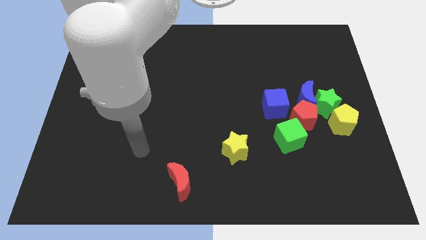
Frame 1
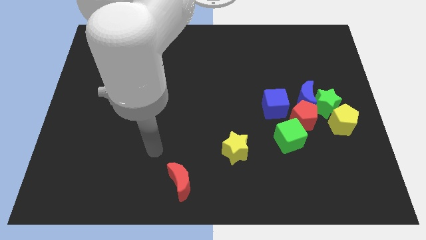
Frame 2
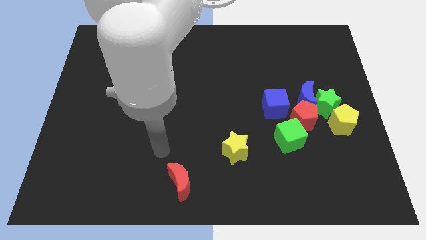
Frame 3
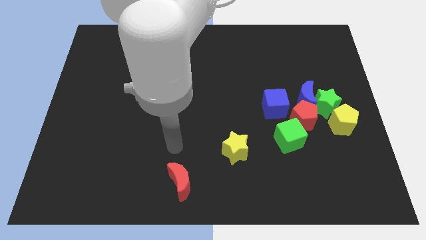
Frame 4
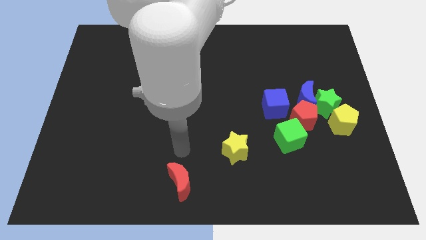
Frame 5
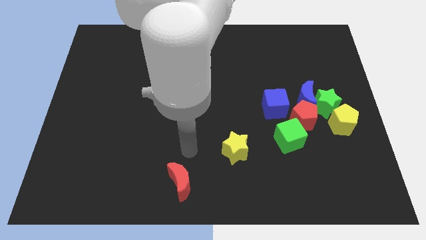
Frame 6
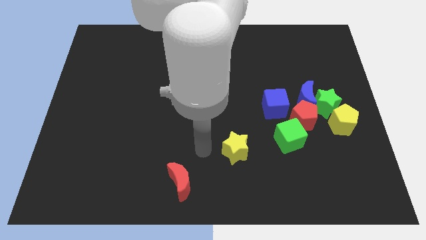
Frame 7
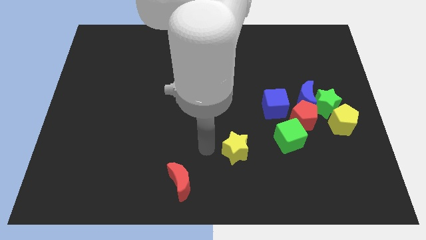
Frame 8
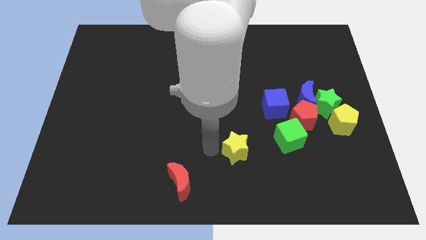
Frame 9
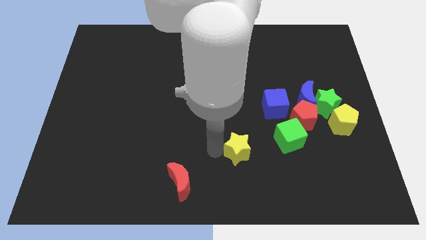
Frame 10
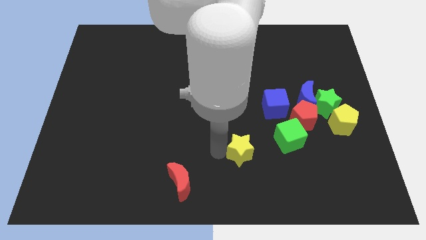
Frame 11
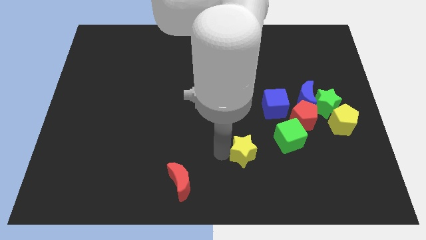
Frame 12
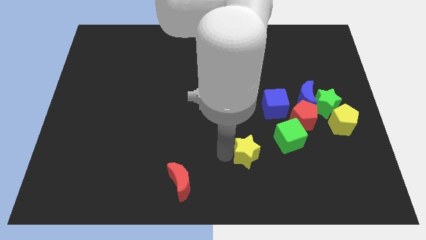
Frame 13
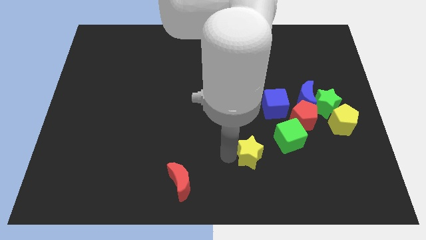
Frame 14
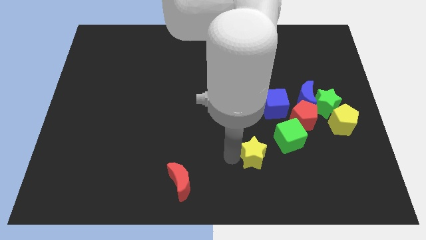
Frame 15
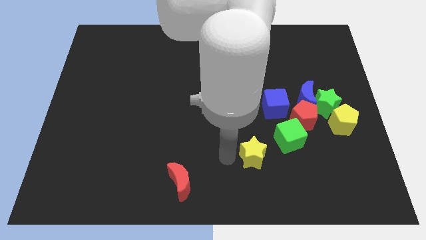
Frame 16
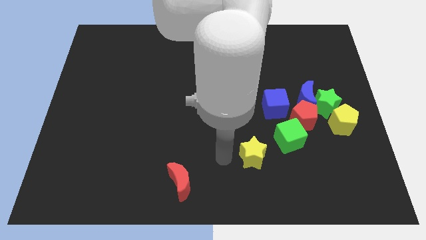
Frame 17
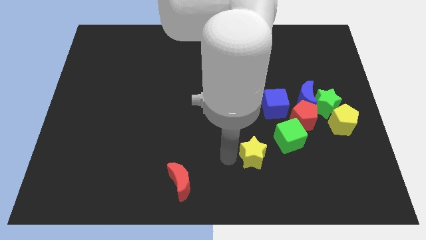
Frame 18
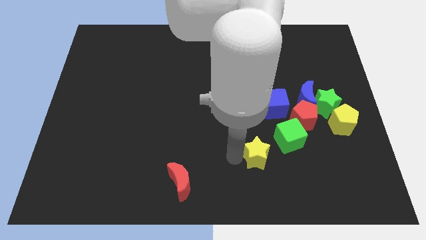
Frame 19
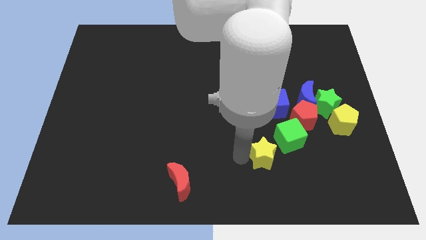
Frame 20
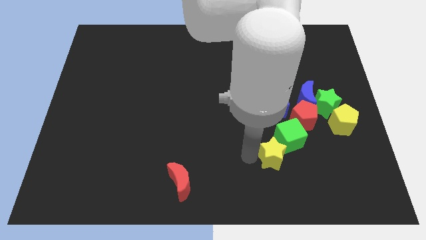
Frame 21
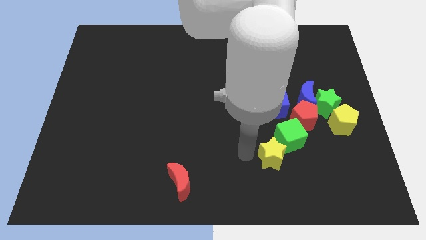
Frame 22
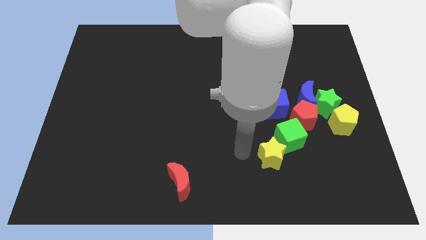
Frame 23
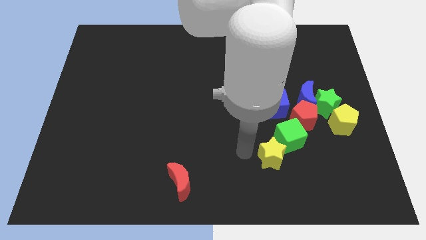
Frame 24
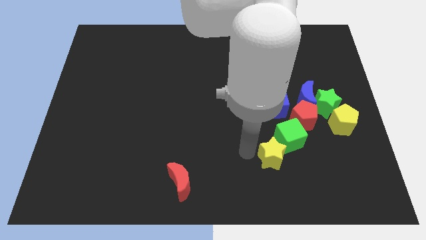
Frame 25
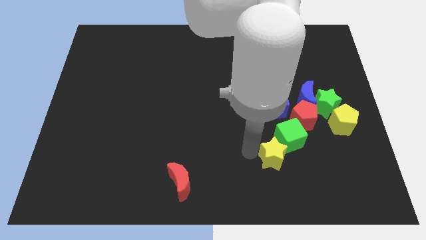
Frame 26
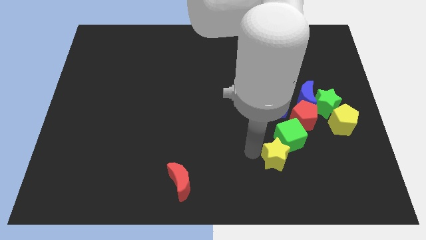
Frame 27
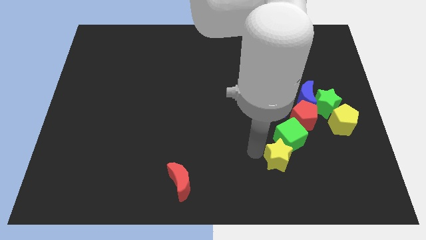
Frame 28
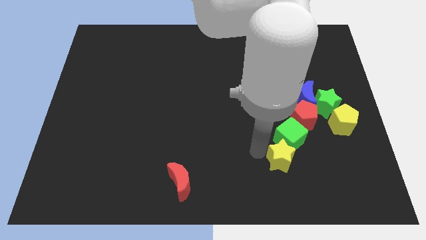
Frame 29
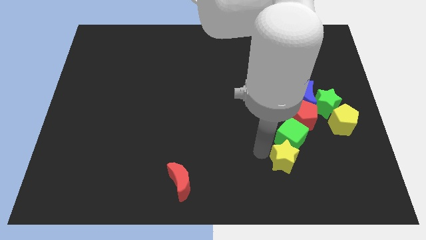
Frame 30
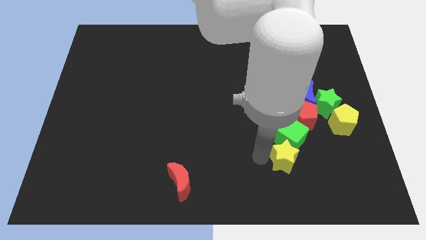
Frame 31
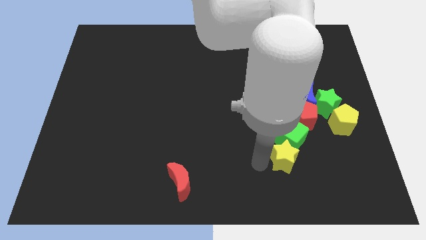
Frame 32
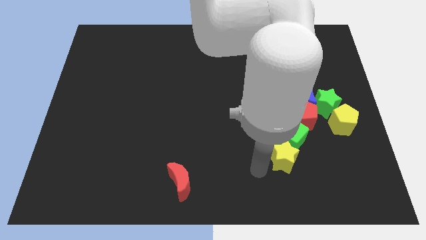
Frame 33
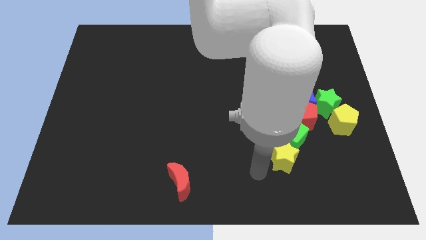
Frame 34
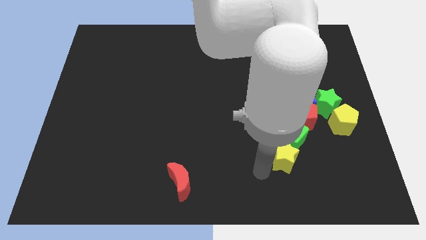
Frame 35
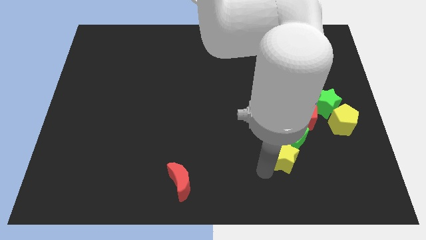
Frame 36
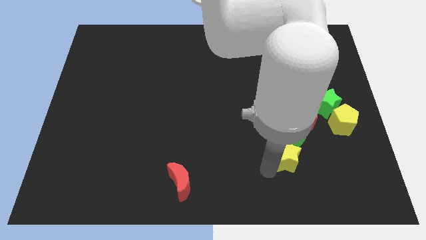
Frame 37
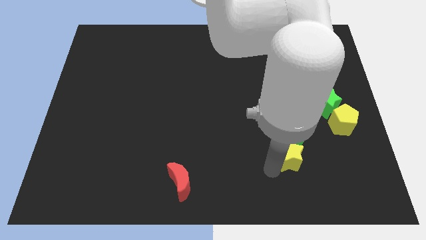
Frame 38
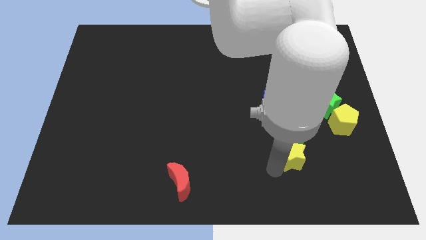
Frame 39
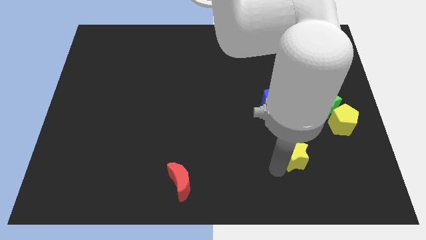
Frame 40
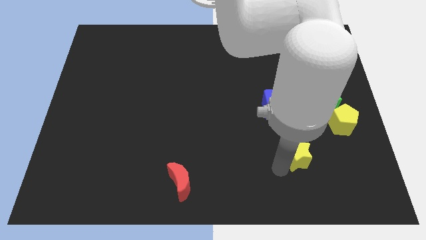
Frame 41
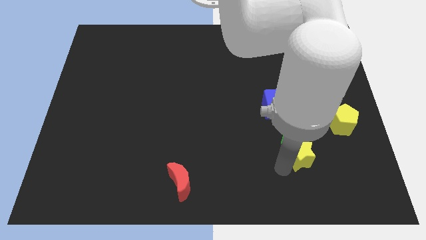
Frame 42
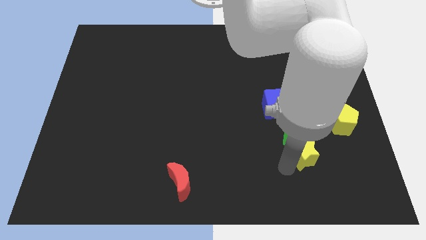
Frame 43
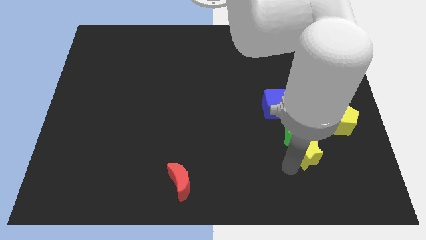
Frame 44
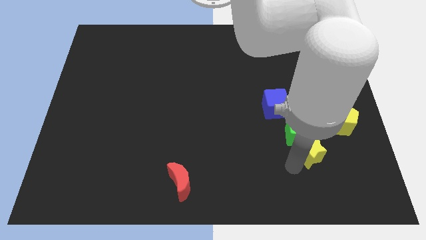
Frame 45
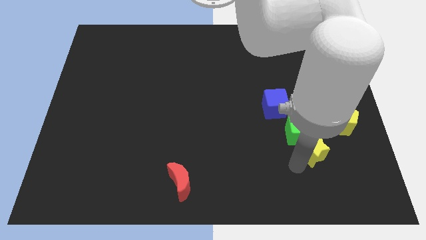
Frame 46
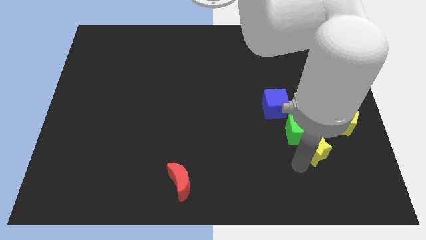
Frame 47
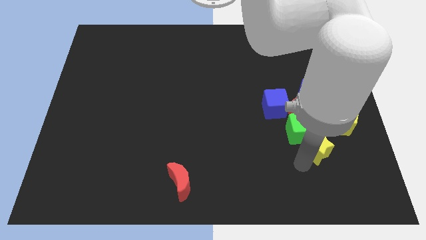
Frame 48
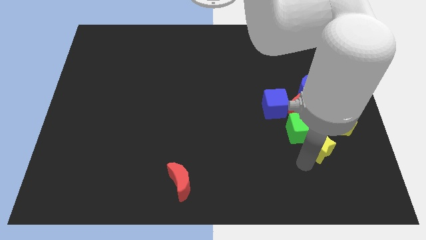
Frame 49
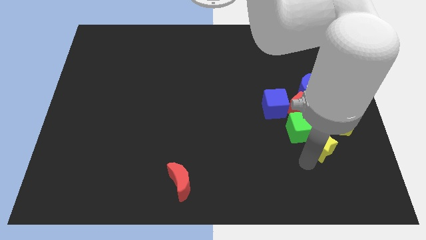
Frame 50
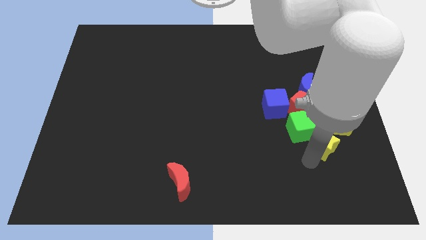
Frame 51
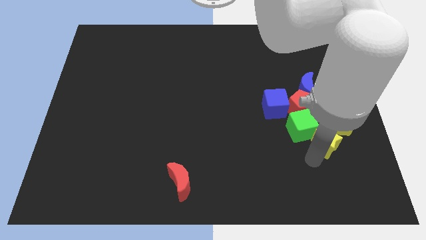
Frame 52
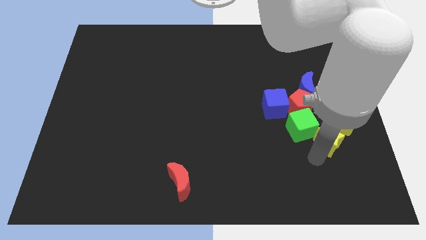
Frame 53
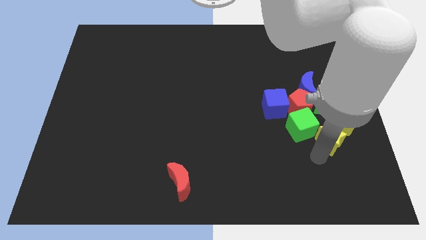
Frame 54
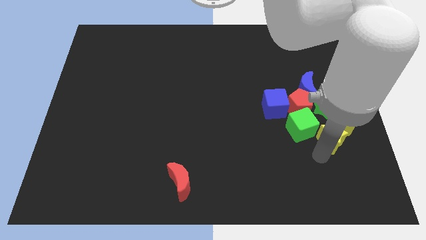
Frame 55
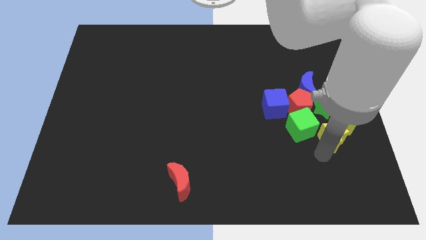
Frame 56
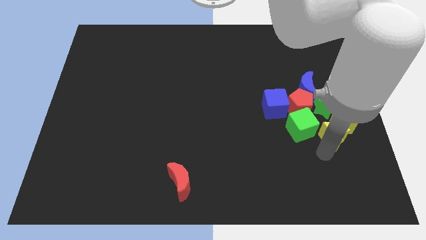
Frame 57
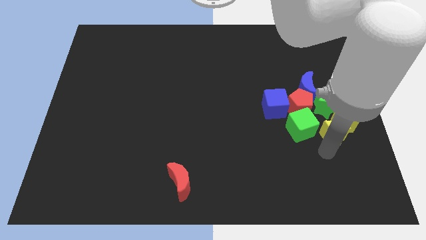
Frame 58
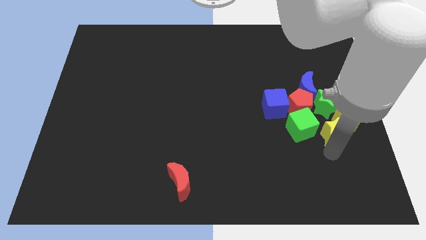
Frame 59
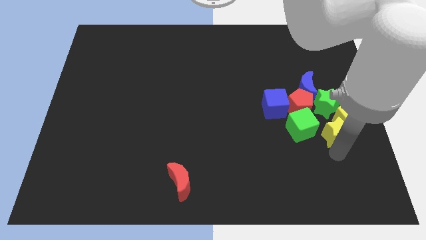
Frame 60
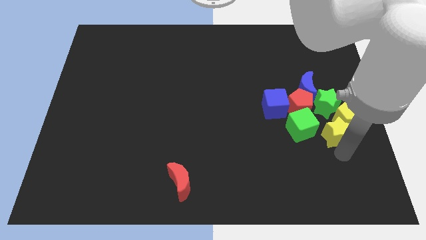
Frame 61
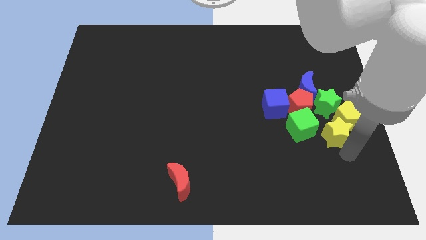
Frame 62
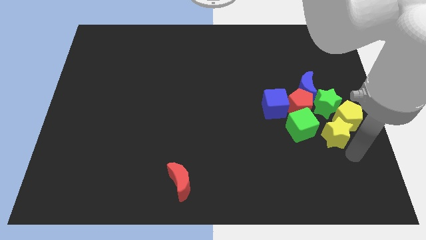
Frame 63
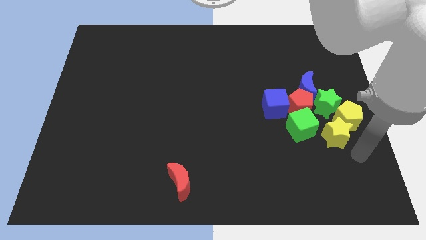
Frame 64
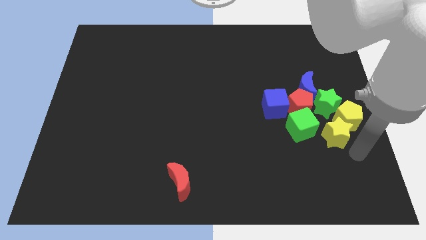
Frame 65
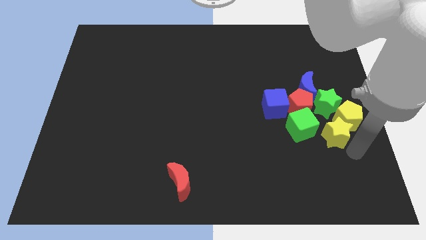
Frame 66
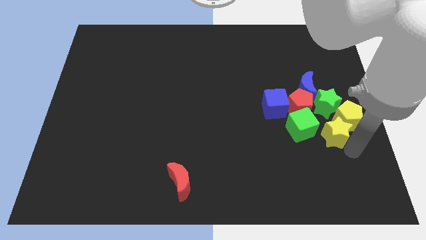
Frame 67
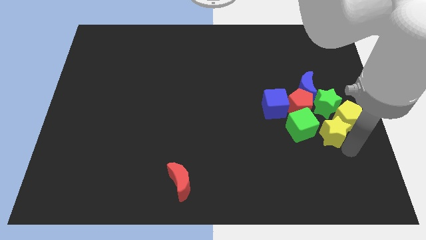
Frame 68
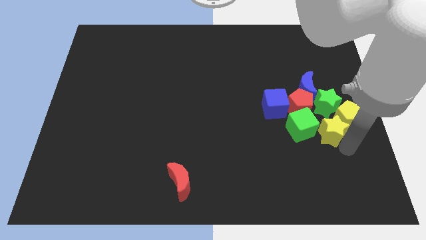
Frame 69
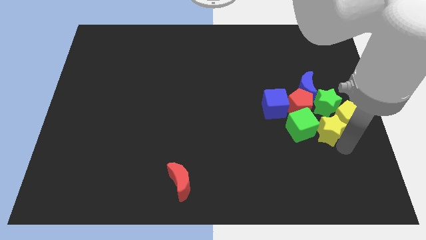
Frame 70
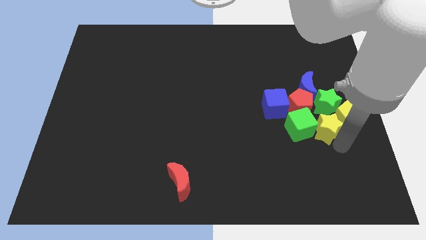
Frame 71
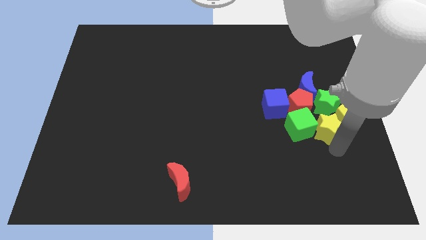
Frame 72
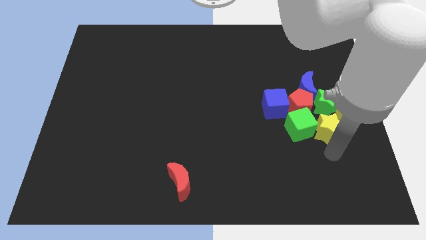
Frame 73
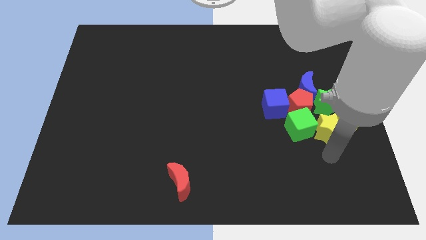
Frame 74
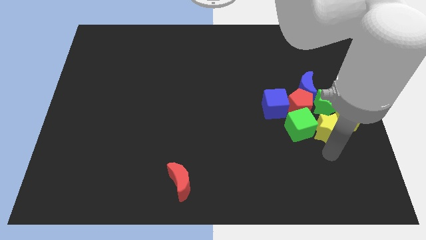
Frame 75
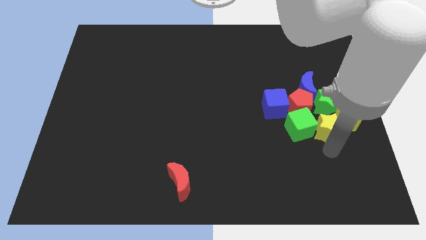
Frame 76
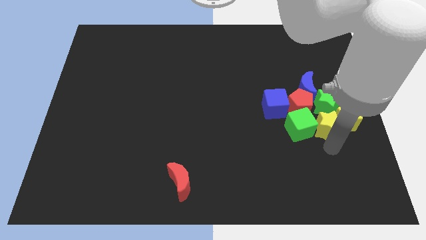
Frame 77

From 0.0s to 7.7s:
move the yellow star towards the green star
